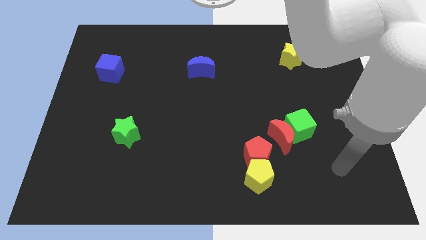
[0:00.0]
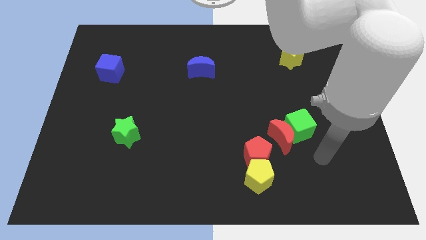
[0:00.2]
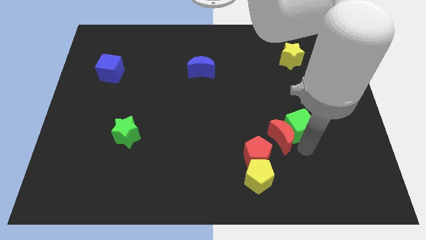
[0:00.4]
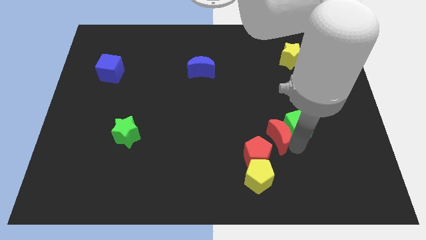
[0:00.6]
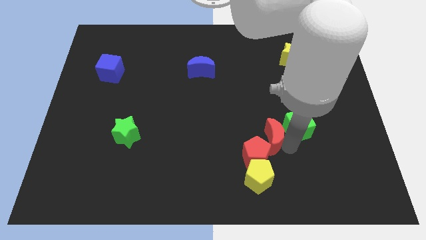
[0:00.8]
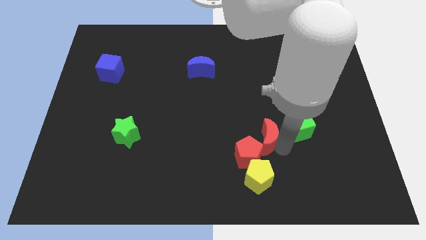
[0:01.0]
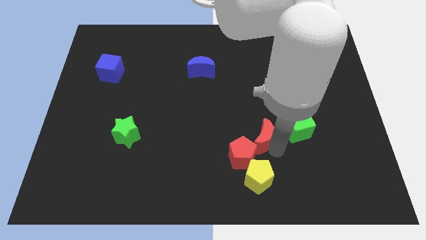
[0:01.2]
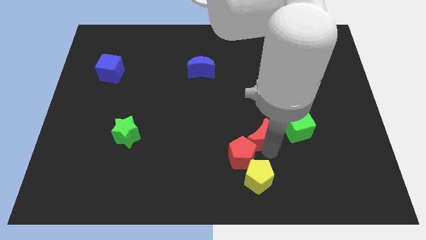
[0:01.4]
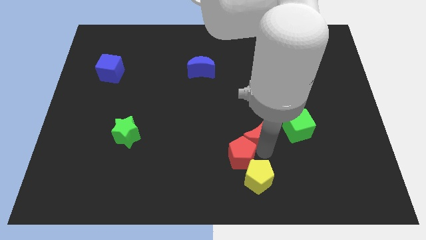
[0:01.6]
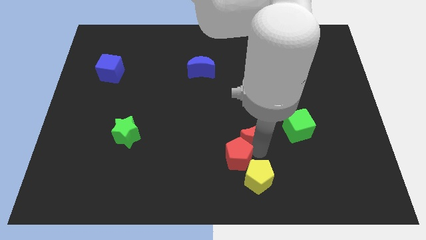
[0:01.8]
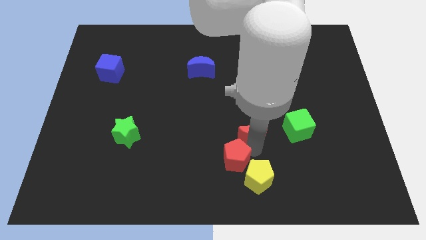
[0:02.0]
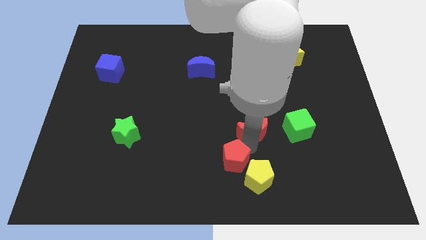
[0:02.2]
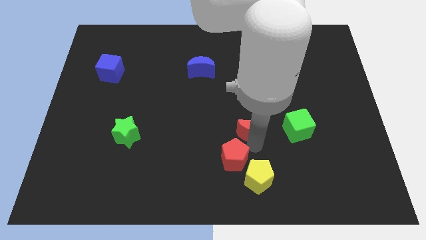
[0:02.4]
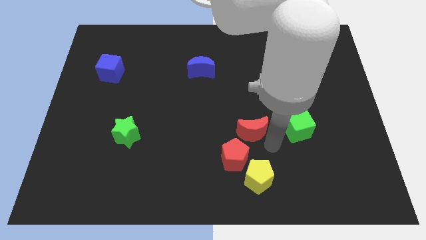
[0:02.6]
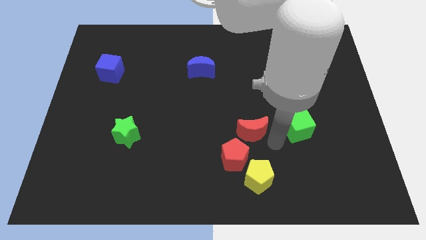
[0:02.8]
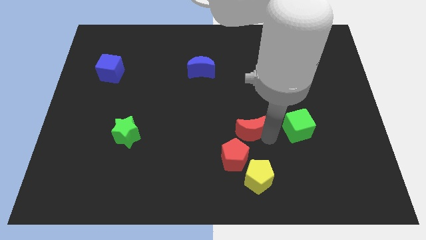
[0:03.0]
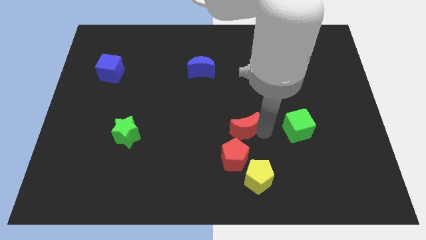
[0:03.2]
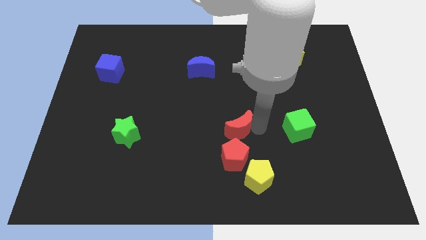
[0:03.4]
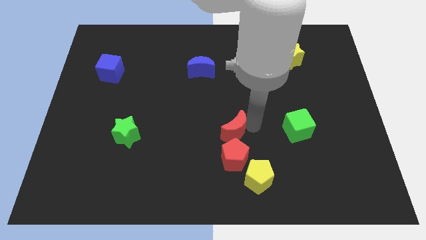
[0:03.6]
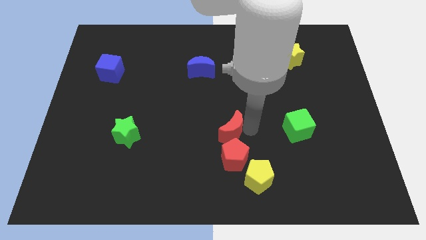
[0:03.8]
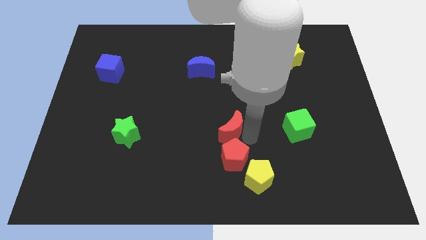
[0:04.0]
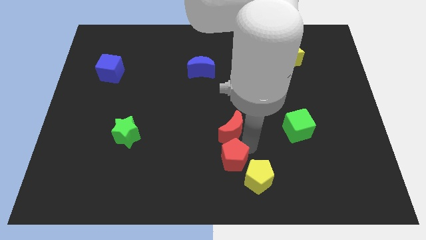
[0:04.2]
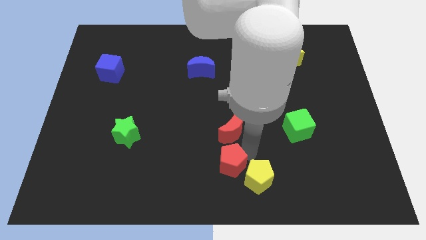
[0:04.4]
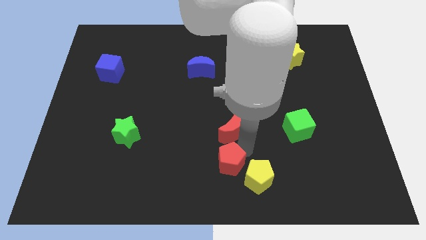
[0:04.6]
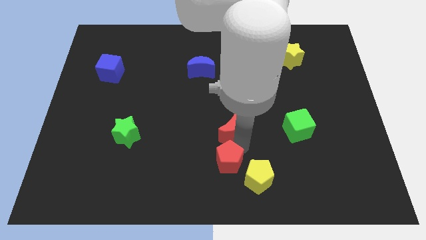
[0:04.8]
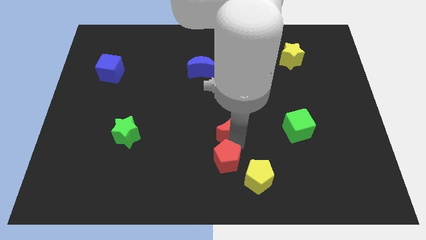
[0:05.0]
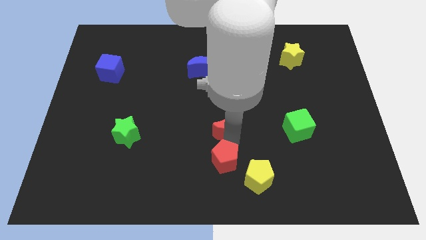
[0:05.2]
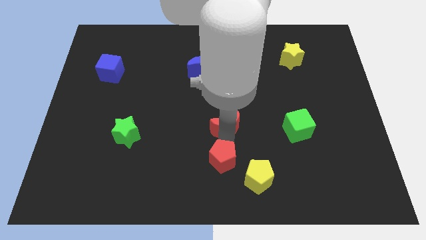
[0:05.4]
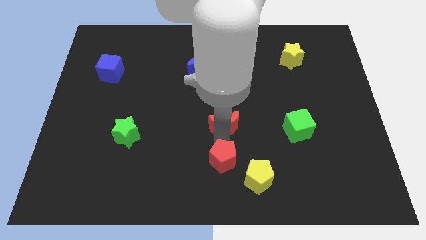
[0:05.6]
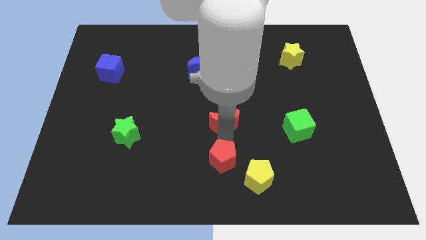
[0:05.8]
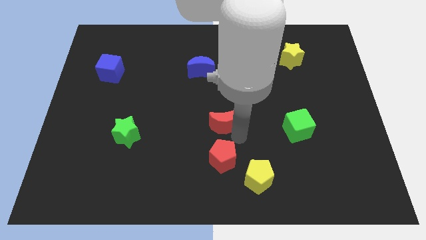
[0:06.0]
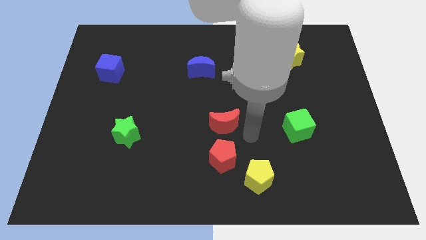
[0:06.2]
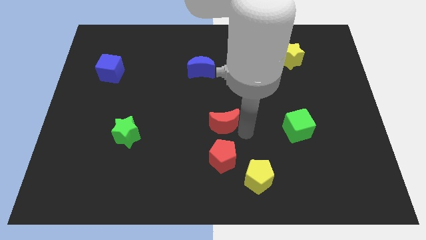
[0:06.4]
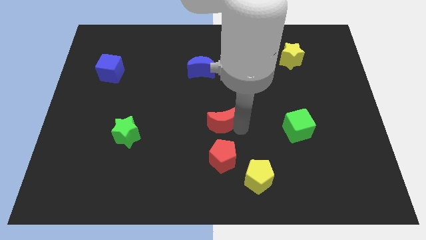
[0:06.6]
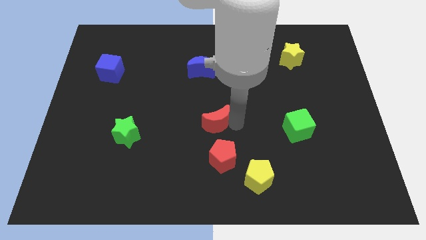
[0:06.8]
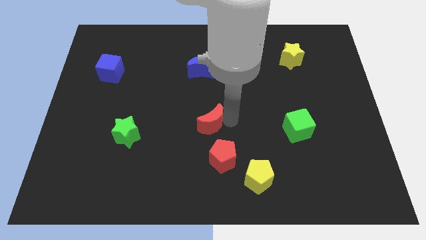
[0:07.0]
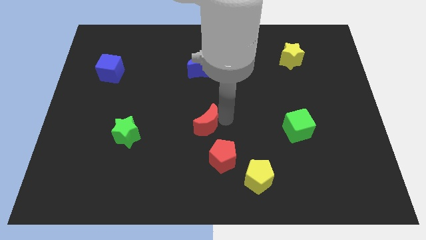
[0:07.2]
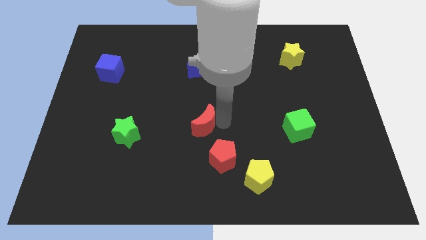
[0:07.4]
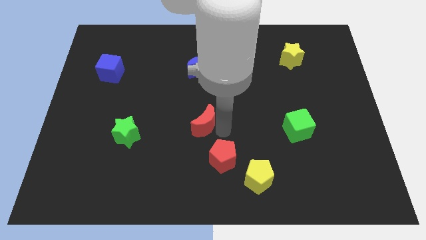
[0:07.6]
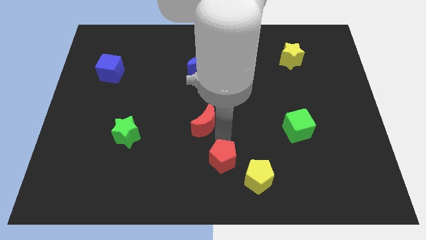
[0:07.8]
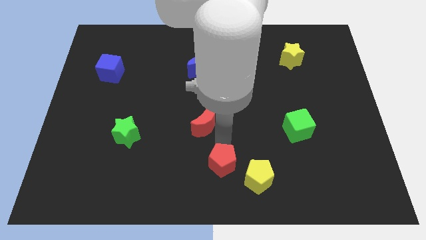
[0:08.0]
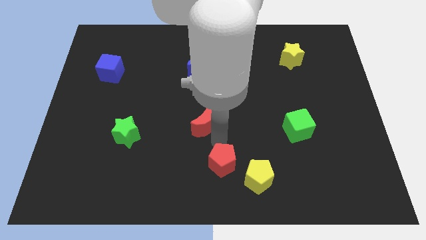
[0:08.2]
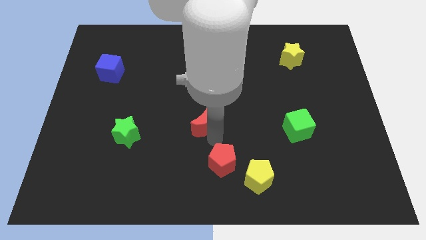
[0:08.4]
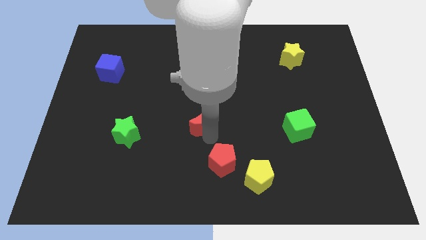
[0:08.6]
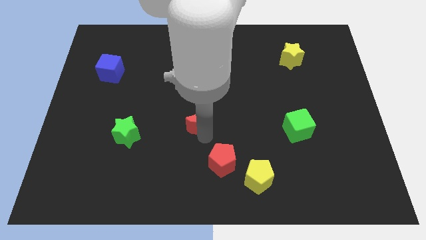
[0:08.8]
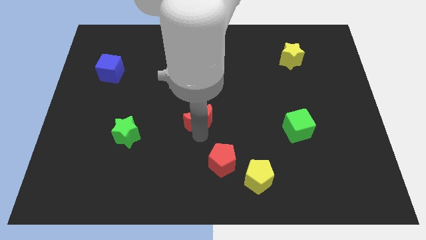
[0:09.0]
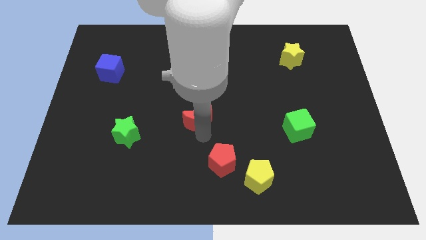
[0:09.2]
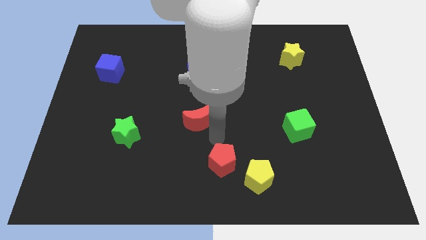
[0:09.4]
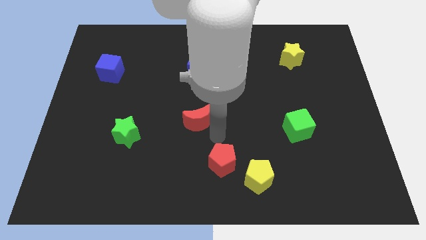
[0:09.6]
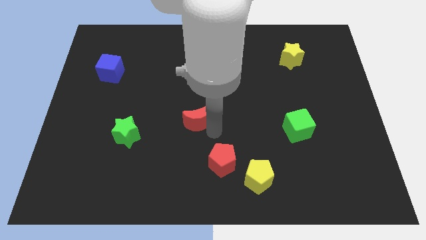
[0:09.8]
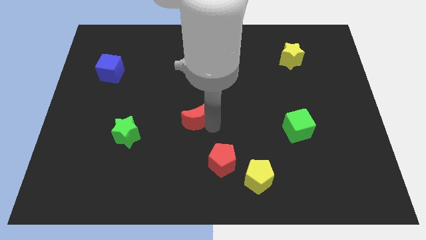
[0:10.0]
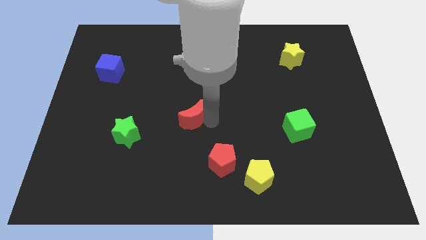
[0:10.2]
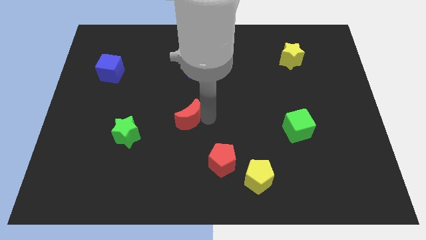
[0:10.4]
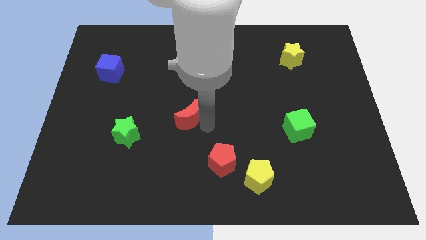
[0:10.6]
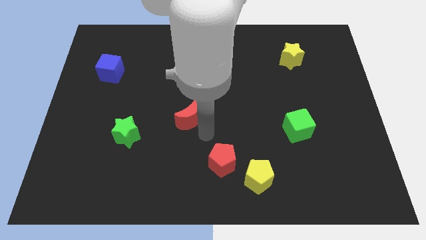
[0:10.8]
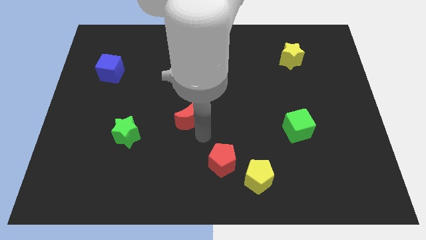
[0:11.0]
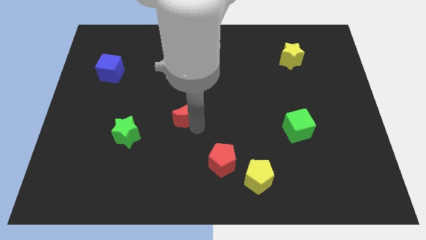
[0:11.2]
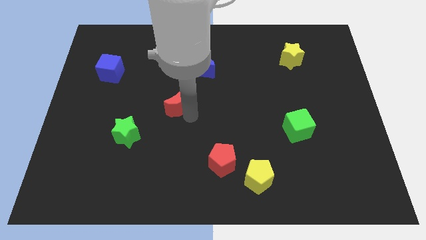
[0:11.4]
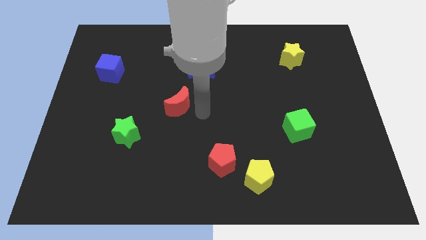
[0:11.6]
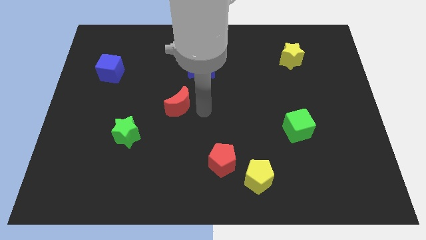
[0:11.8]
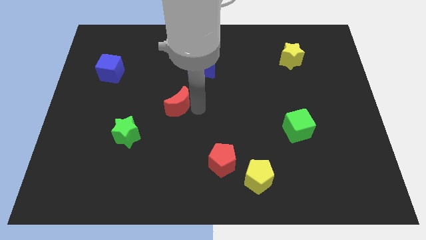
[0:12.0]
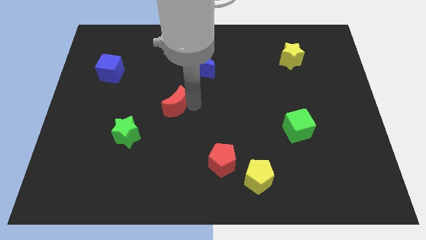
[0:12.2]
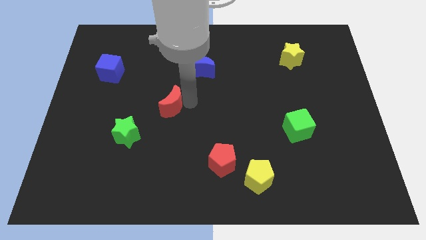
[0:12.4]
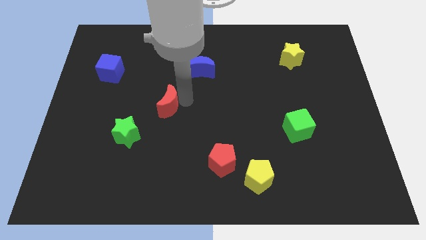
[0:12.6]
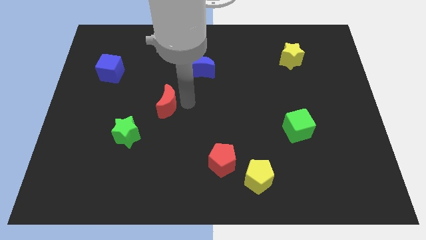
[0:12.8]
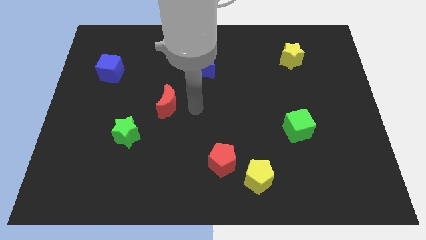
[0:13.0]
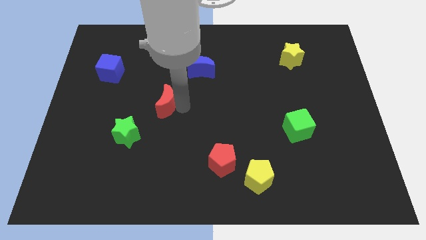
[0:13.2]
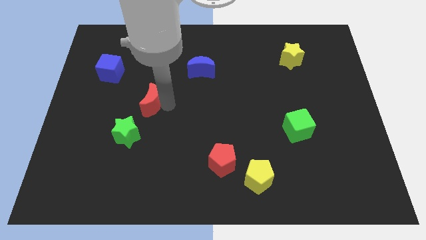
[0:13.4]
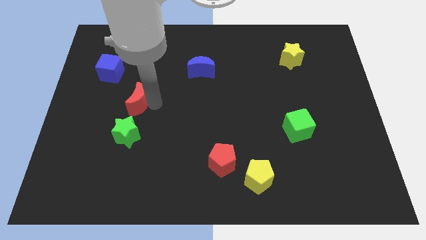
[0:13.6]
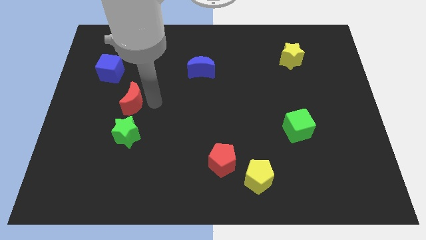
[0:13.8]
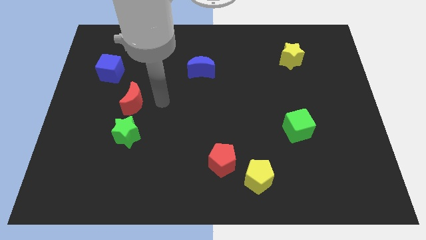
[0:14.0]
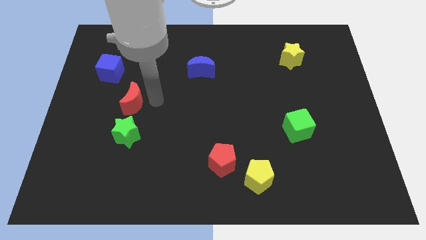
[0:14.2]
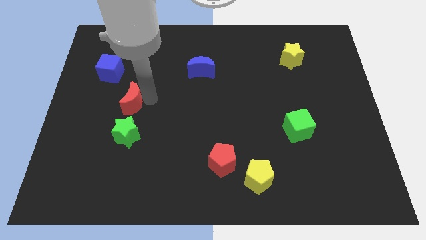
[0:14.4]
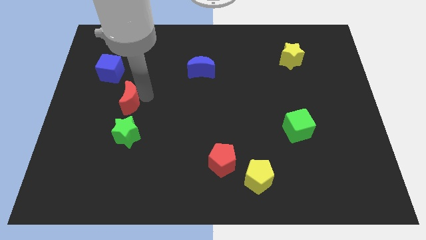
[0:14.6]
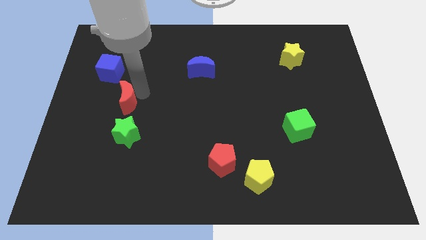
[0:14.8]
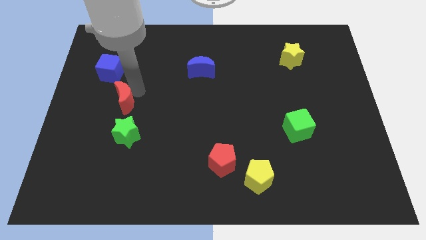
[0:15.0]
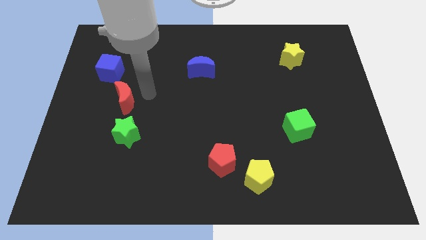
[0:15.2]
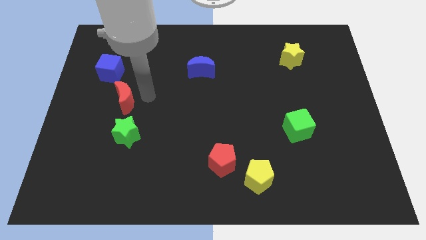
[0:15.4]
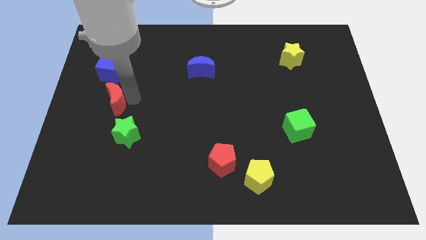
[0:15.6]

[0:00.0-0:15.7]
push the red moon below the blue cube
